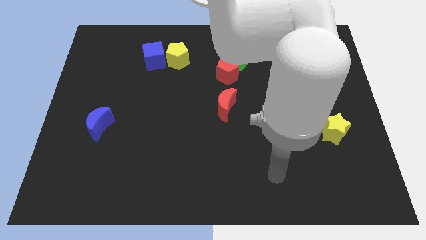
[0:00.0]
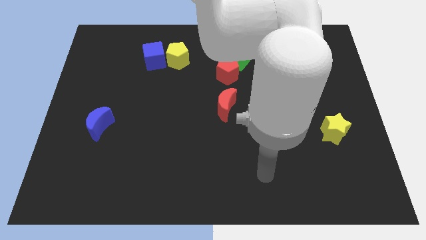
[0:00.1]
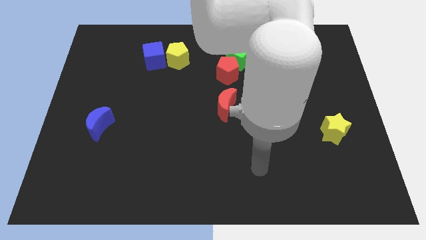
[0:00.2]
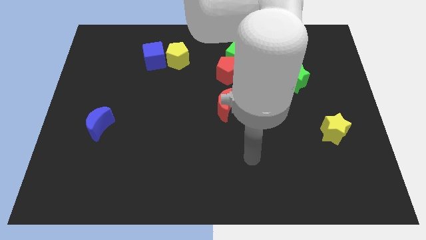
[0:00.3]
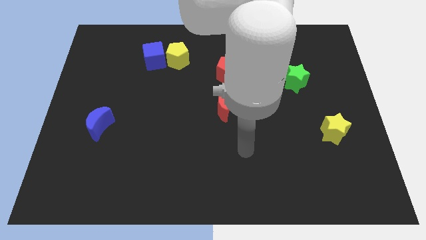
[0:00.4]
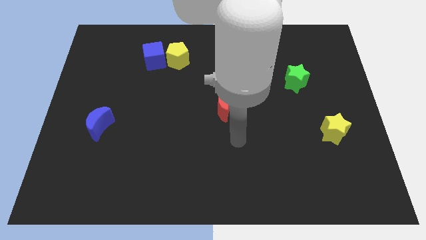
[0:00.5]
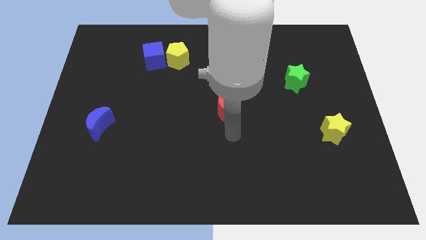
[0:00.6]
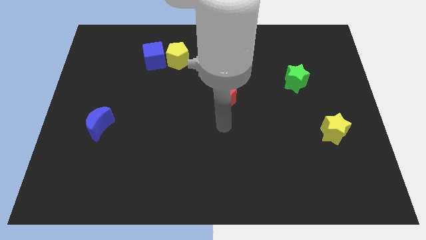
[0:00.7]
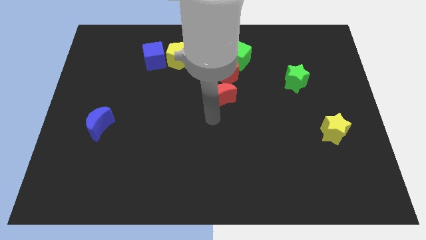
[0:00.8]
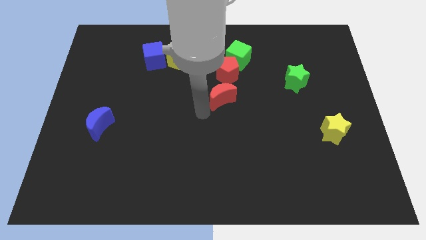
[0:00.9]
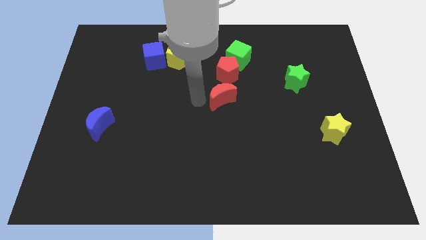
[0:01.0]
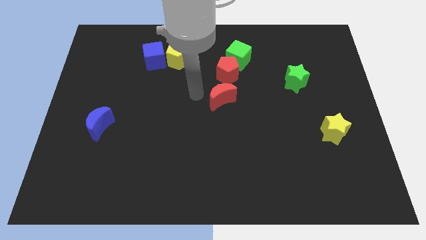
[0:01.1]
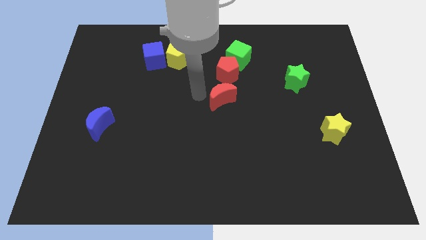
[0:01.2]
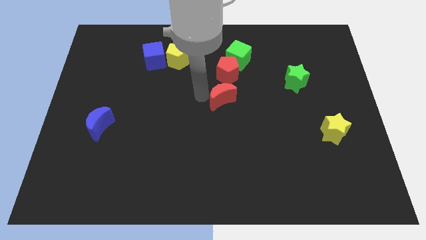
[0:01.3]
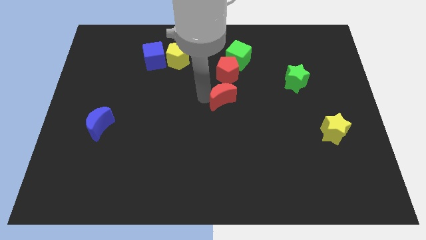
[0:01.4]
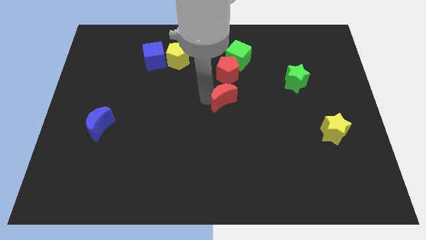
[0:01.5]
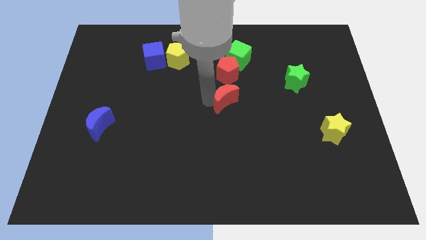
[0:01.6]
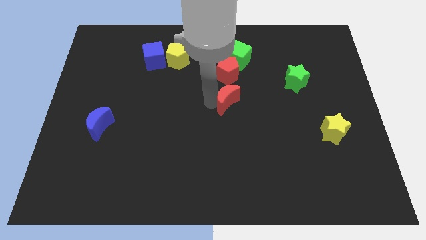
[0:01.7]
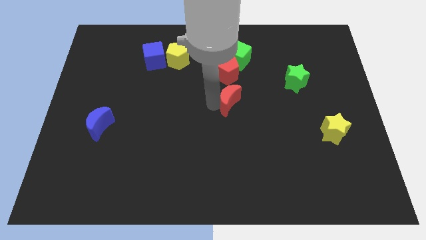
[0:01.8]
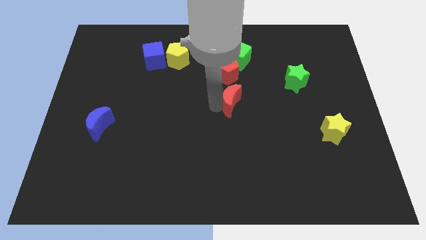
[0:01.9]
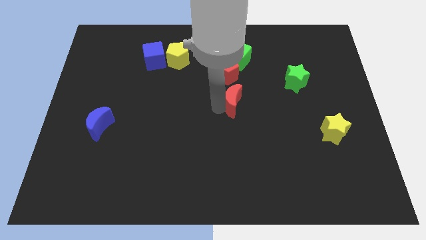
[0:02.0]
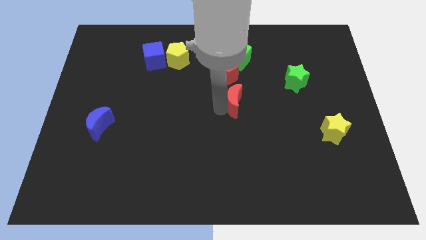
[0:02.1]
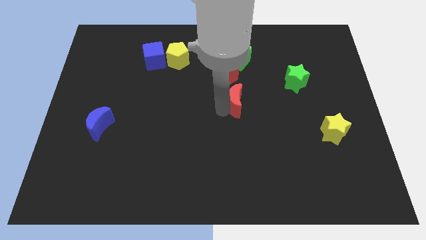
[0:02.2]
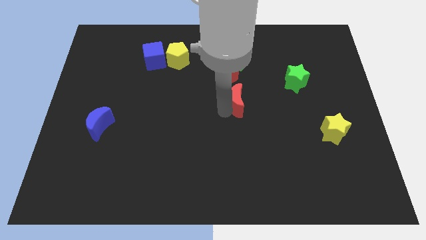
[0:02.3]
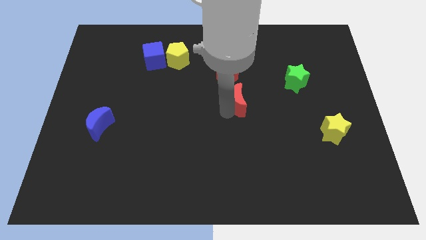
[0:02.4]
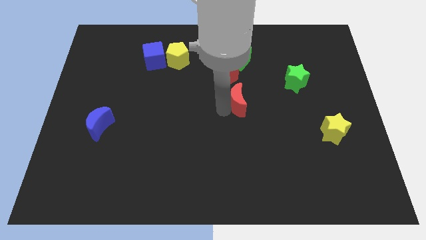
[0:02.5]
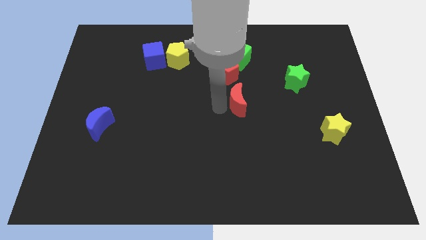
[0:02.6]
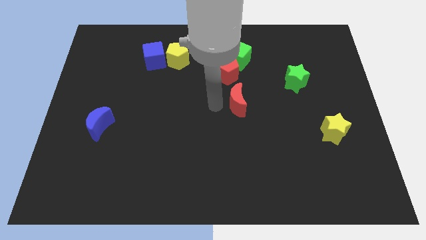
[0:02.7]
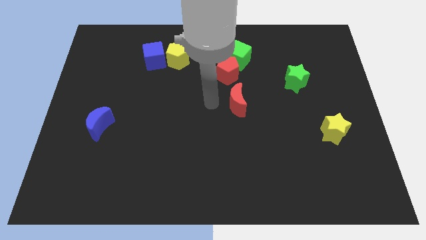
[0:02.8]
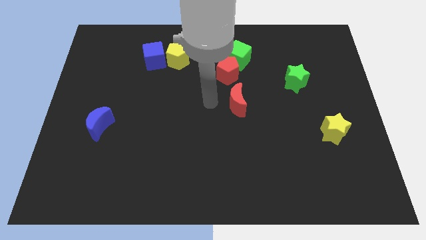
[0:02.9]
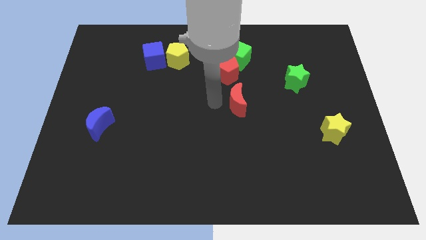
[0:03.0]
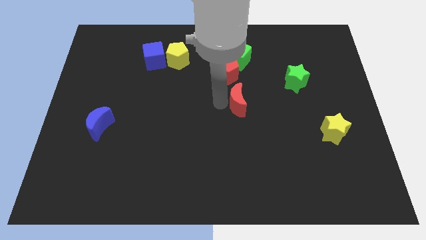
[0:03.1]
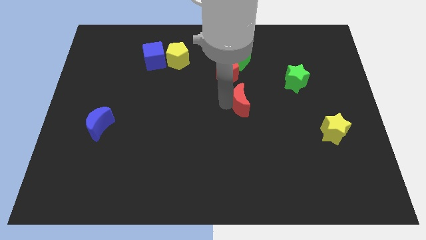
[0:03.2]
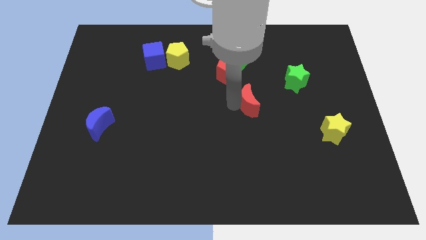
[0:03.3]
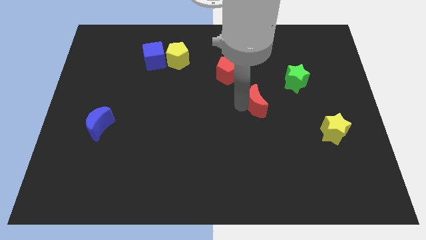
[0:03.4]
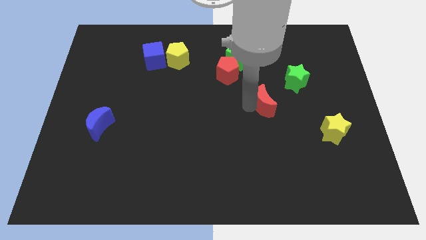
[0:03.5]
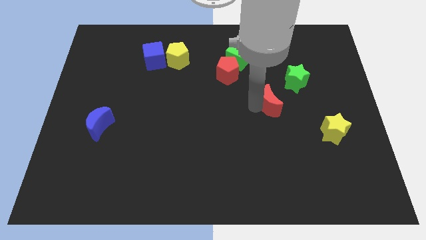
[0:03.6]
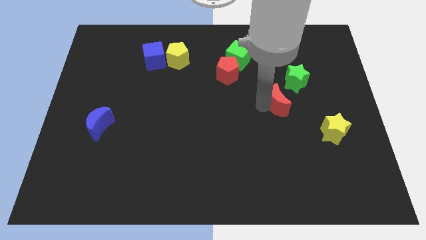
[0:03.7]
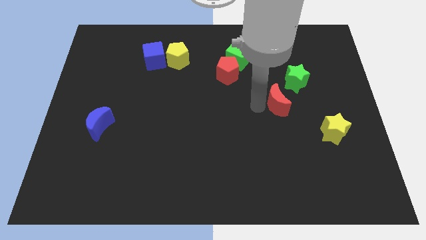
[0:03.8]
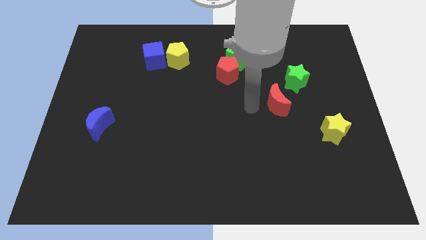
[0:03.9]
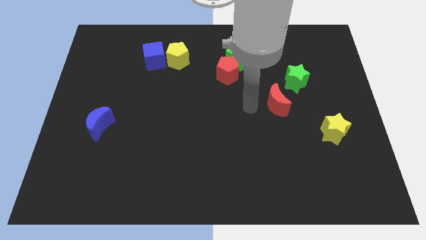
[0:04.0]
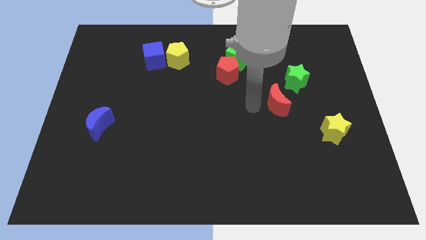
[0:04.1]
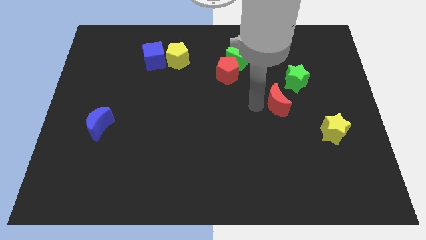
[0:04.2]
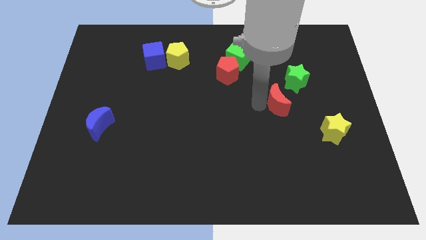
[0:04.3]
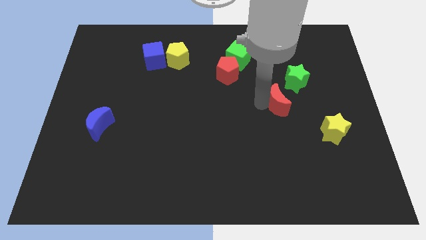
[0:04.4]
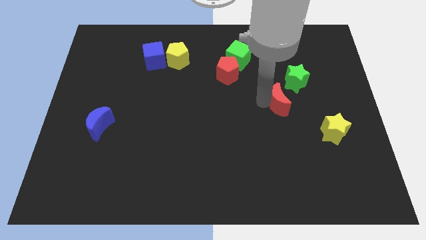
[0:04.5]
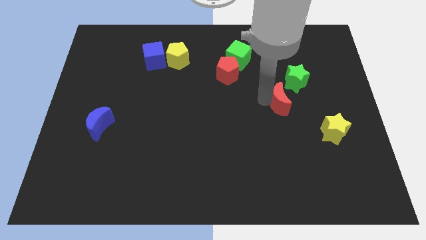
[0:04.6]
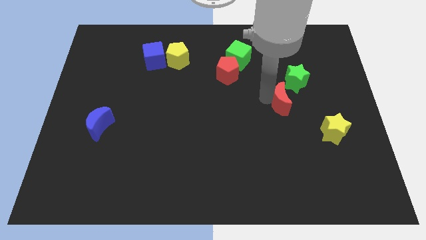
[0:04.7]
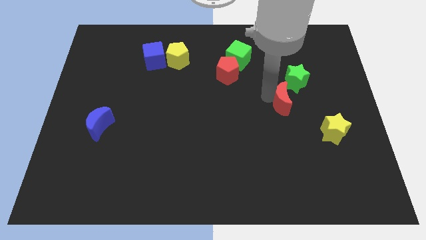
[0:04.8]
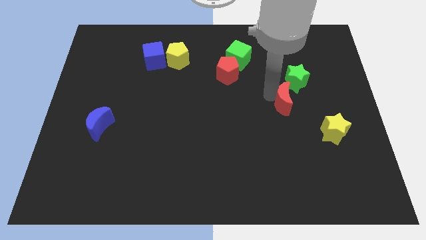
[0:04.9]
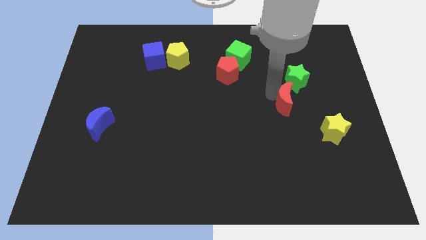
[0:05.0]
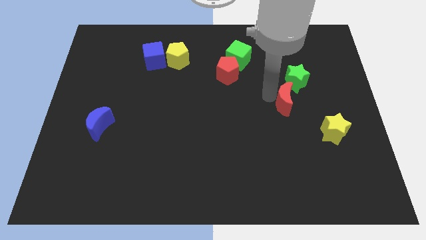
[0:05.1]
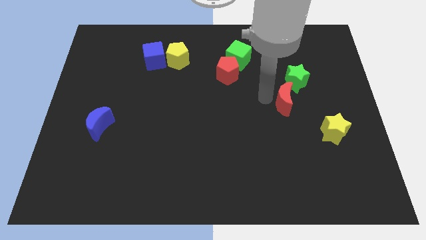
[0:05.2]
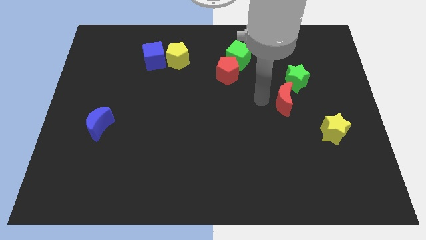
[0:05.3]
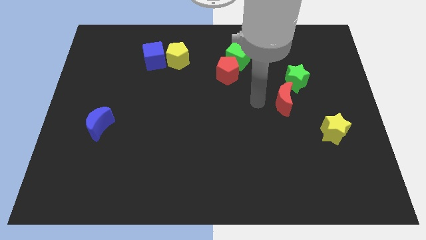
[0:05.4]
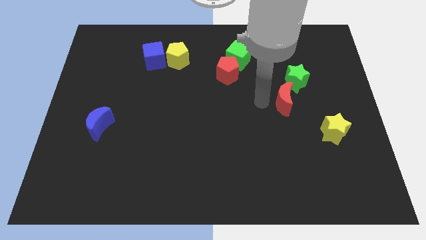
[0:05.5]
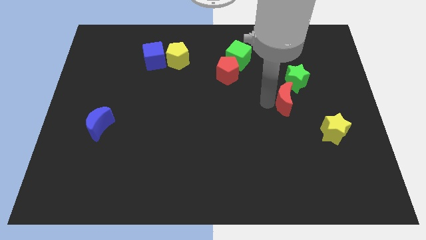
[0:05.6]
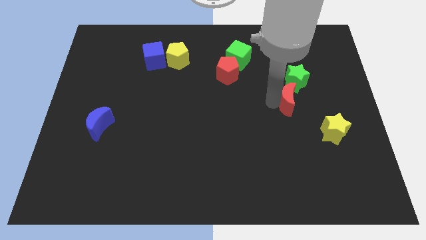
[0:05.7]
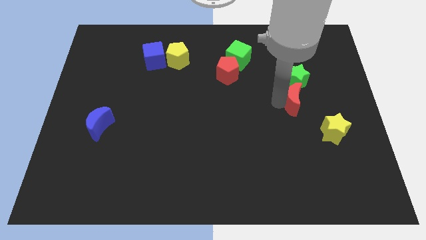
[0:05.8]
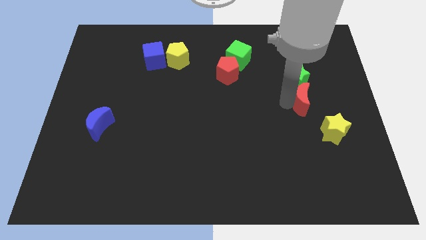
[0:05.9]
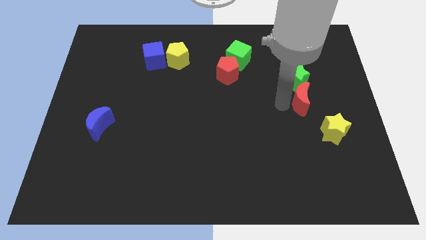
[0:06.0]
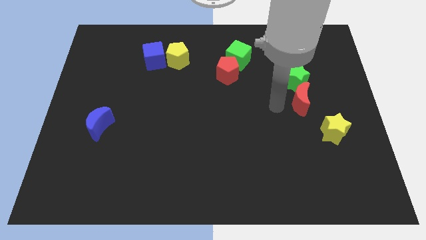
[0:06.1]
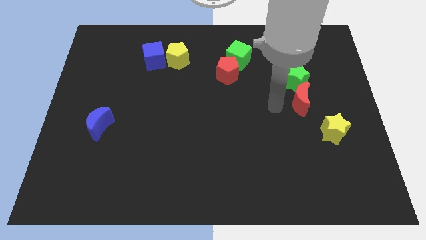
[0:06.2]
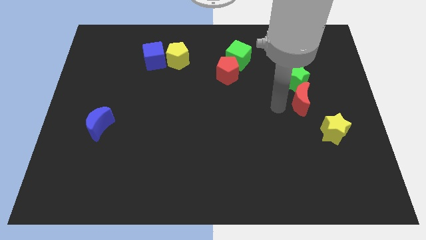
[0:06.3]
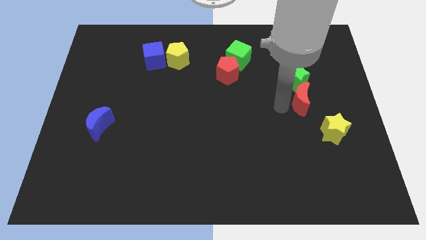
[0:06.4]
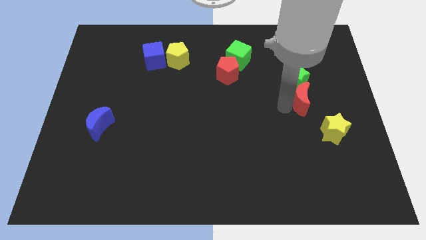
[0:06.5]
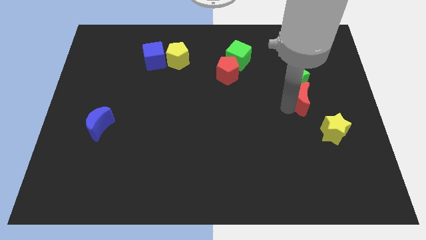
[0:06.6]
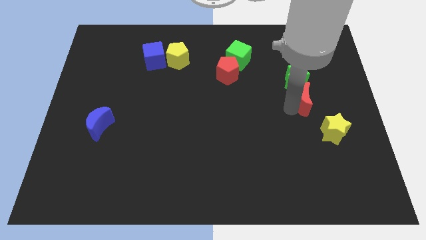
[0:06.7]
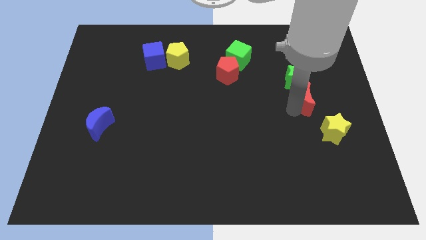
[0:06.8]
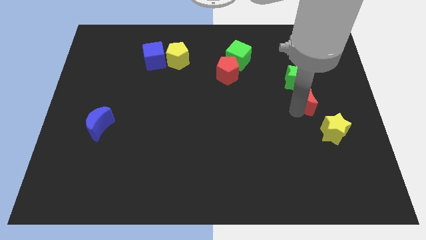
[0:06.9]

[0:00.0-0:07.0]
put the red moon above the yellow star
